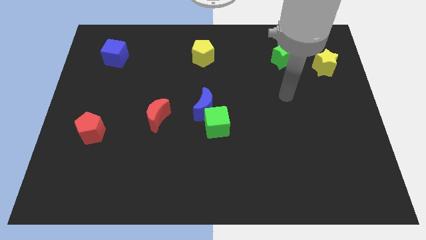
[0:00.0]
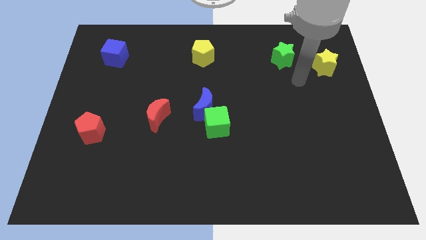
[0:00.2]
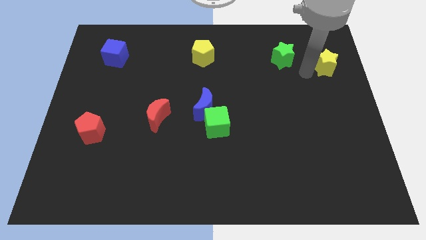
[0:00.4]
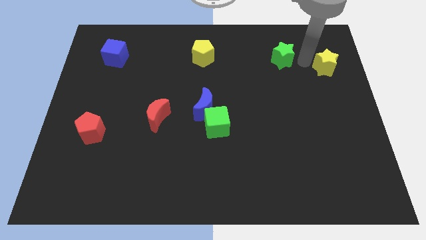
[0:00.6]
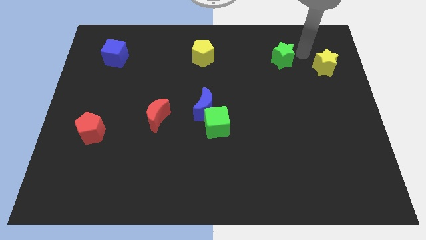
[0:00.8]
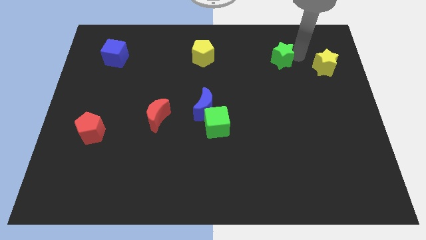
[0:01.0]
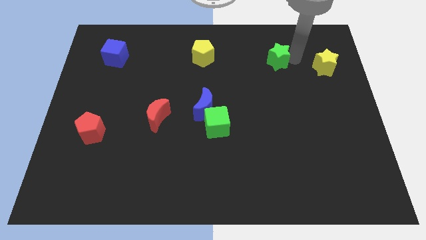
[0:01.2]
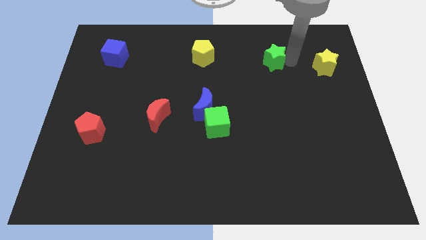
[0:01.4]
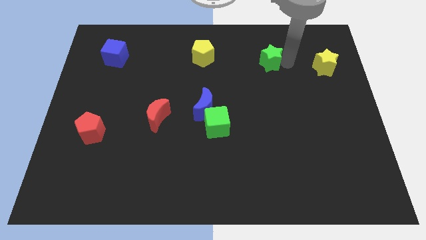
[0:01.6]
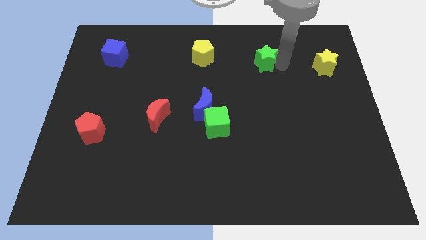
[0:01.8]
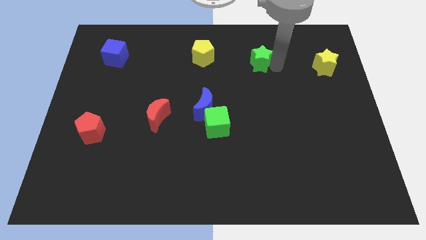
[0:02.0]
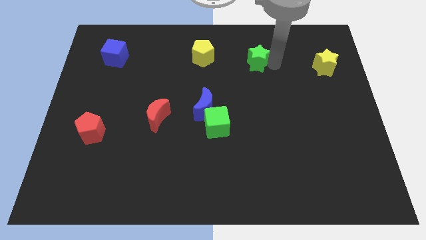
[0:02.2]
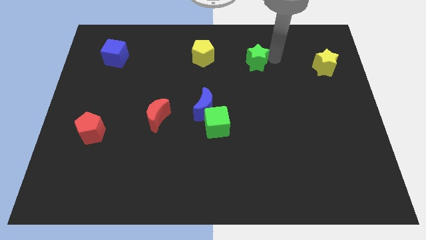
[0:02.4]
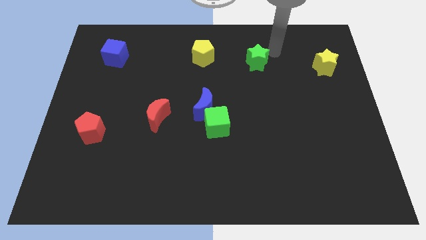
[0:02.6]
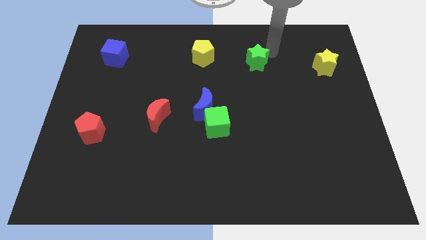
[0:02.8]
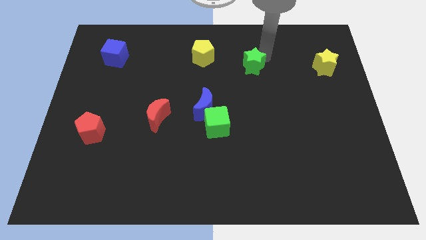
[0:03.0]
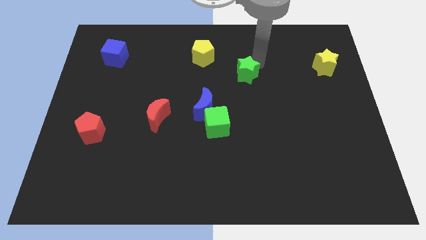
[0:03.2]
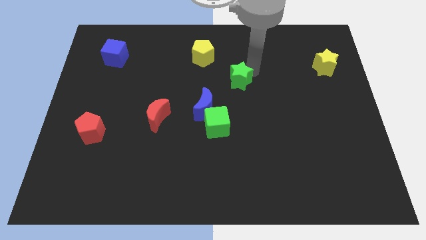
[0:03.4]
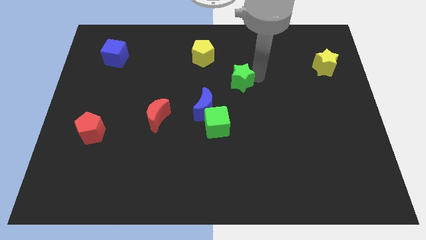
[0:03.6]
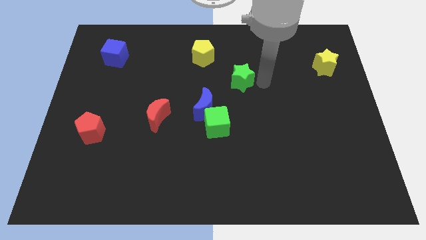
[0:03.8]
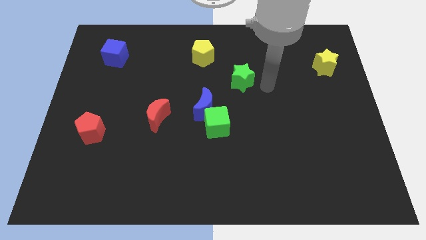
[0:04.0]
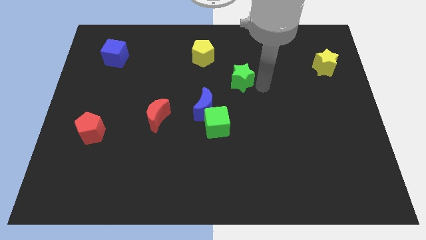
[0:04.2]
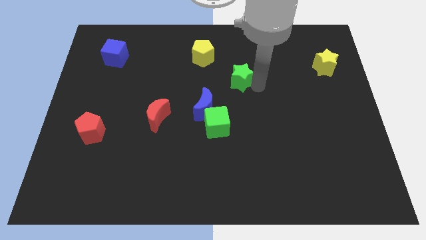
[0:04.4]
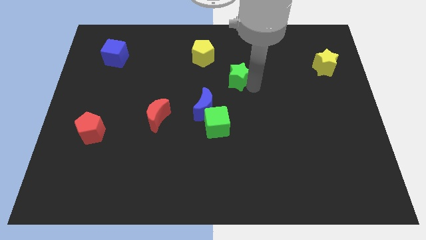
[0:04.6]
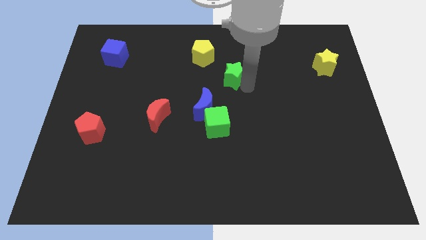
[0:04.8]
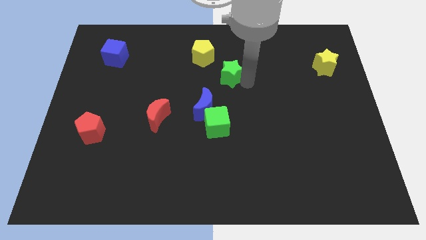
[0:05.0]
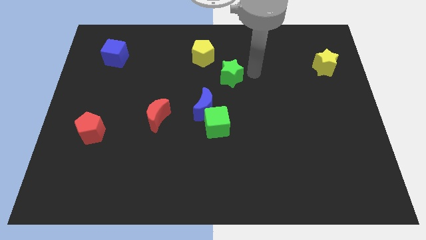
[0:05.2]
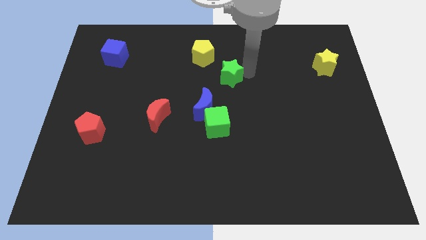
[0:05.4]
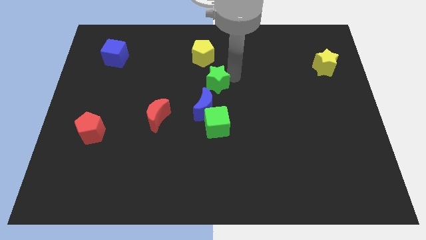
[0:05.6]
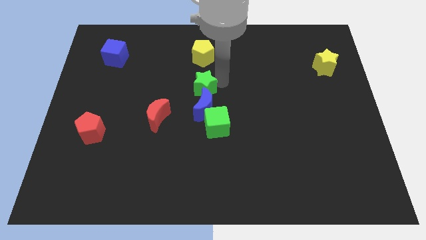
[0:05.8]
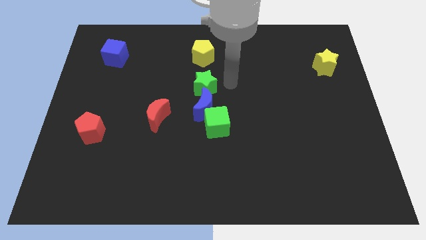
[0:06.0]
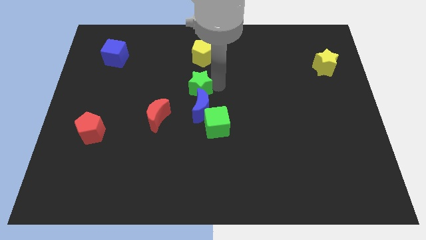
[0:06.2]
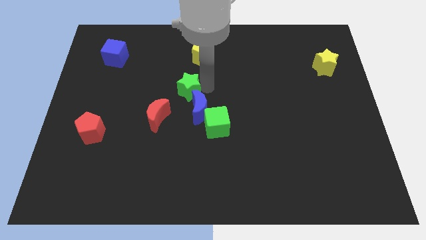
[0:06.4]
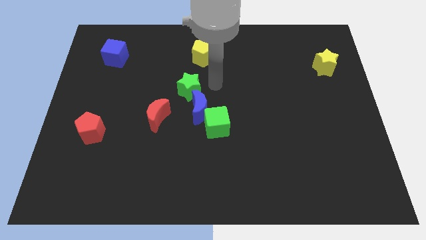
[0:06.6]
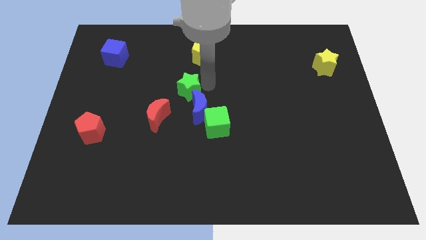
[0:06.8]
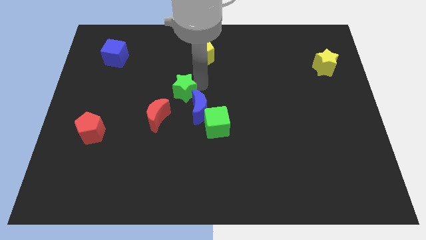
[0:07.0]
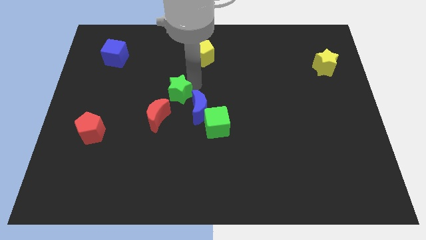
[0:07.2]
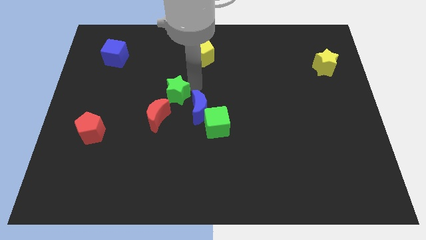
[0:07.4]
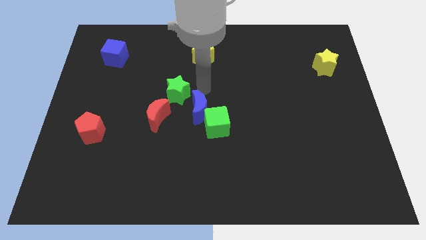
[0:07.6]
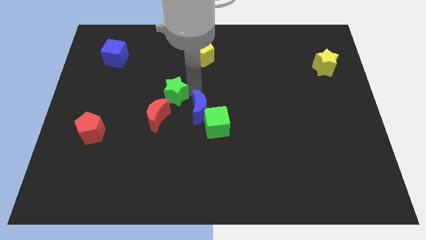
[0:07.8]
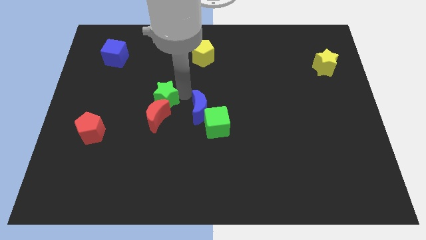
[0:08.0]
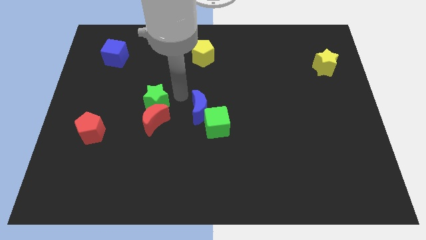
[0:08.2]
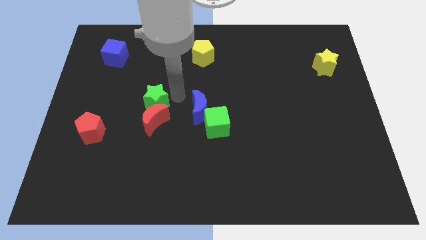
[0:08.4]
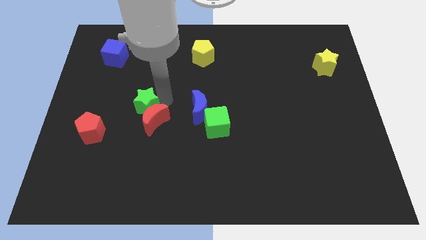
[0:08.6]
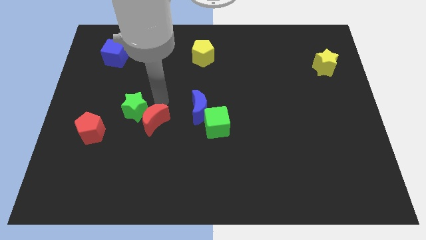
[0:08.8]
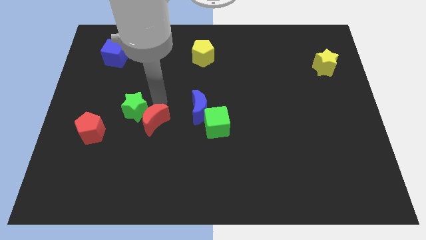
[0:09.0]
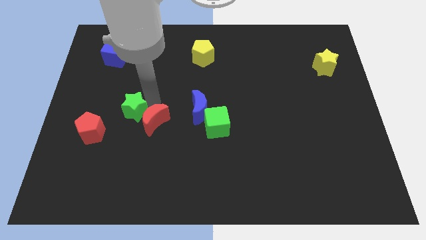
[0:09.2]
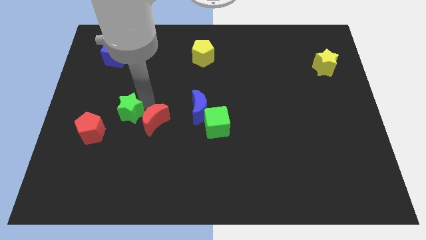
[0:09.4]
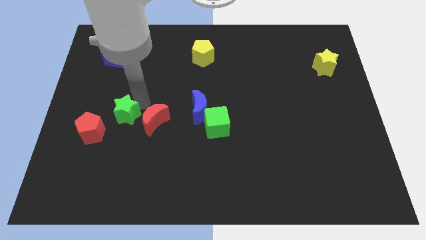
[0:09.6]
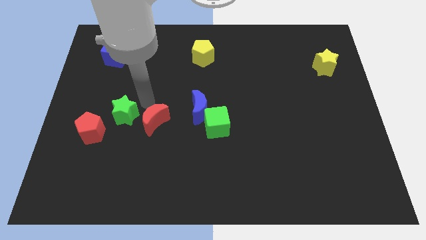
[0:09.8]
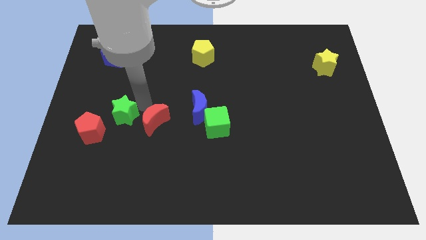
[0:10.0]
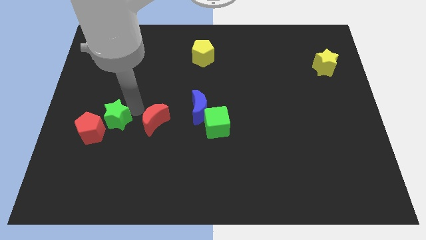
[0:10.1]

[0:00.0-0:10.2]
slide the green star next to the red pentagon

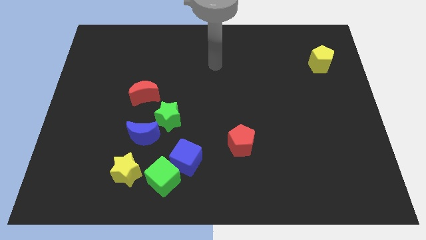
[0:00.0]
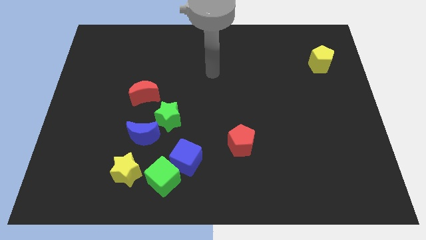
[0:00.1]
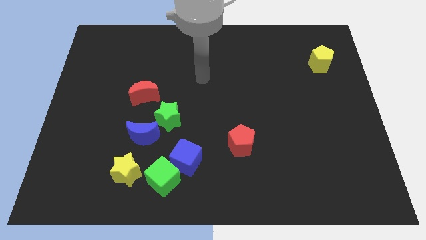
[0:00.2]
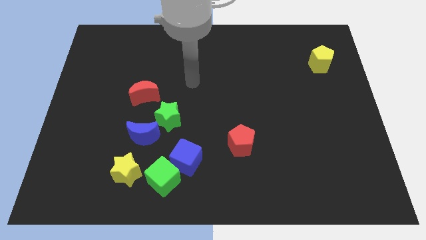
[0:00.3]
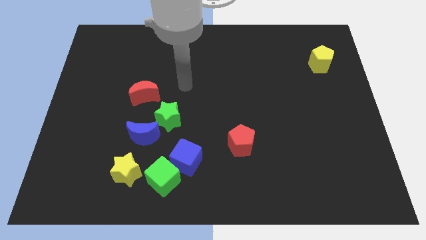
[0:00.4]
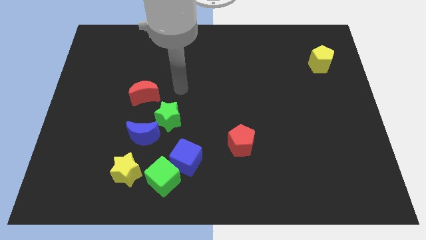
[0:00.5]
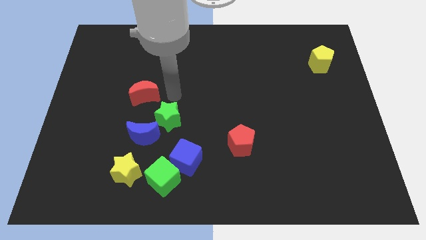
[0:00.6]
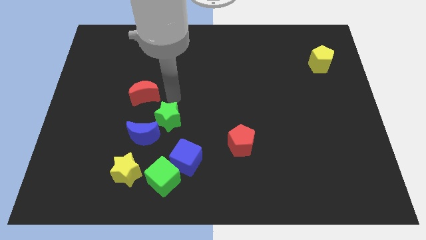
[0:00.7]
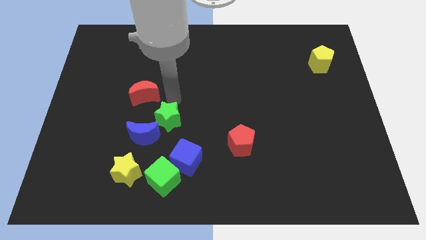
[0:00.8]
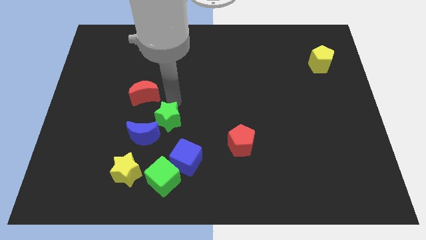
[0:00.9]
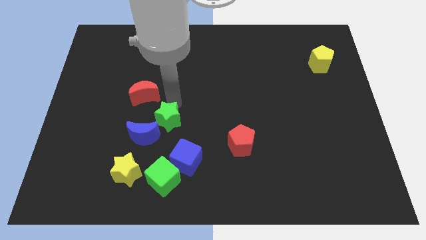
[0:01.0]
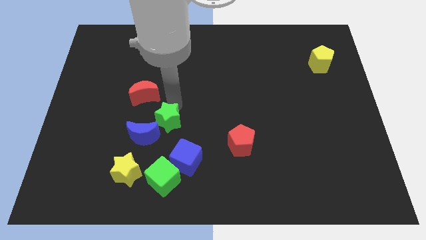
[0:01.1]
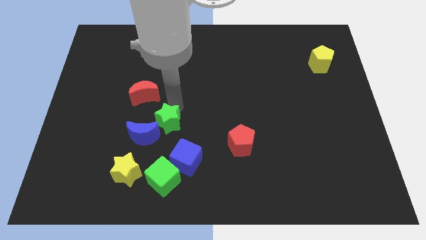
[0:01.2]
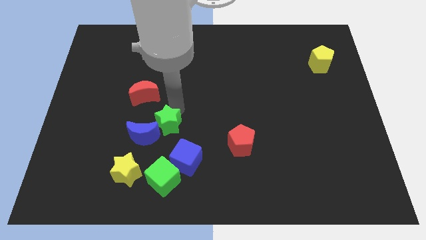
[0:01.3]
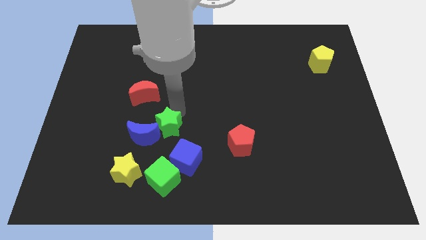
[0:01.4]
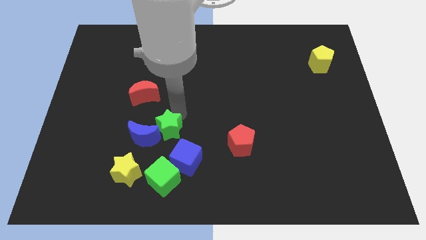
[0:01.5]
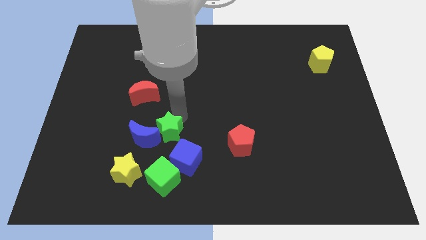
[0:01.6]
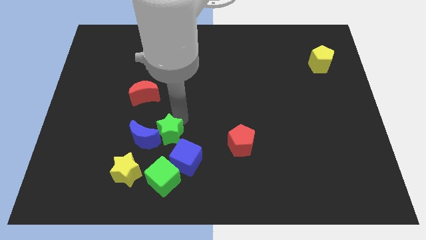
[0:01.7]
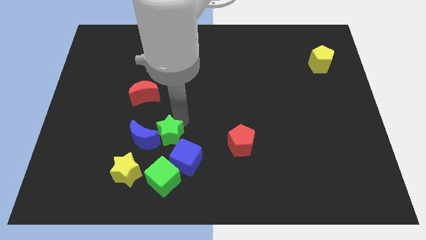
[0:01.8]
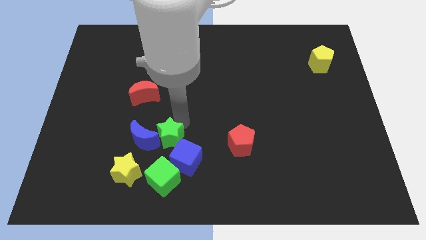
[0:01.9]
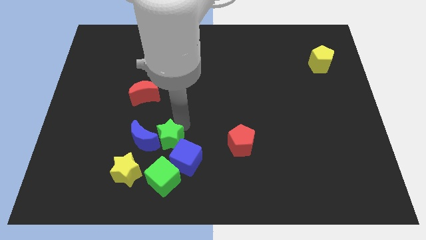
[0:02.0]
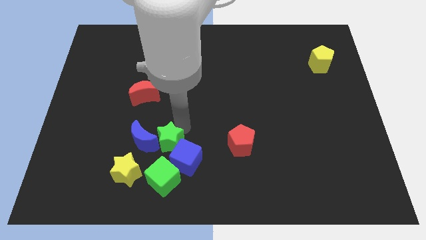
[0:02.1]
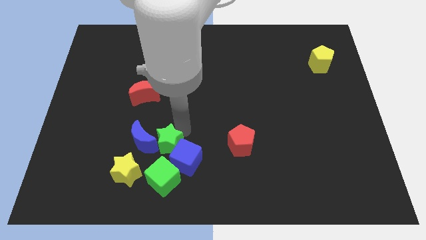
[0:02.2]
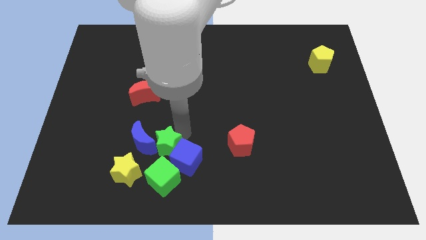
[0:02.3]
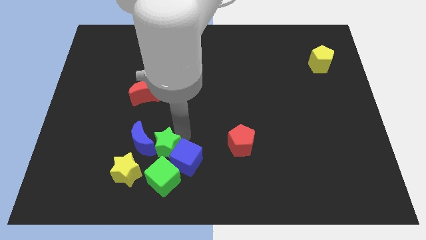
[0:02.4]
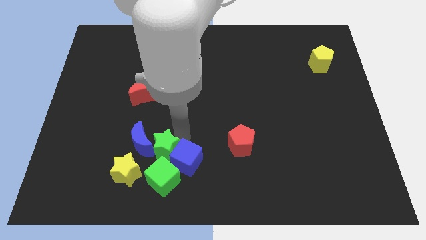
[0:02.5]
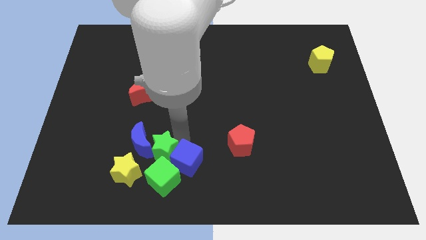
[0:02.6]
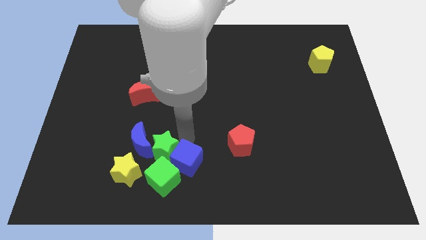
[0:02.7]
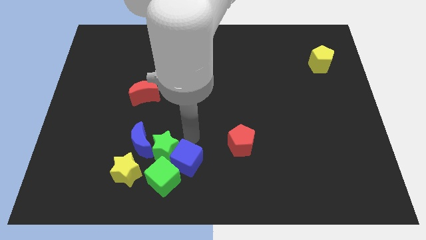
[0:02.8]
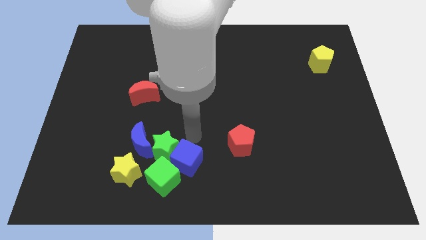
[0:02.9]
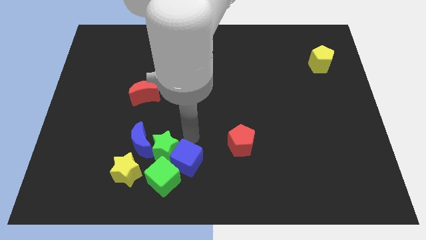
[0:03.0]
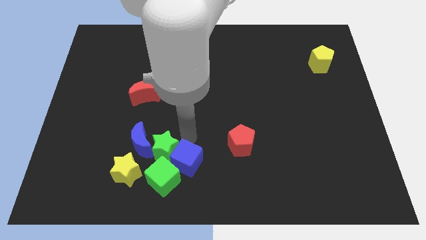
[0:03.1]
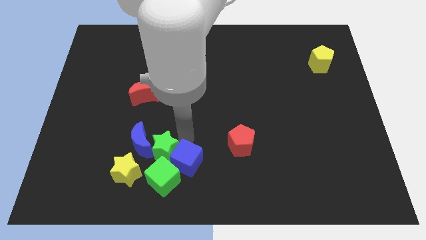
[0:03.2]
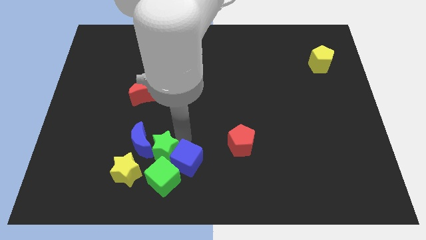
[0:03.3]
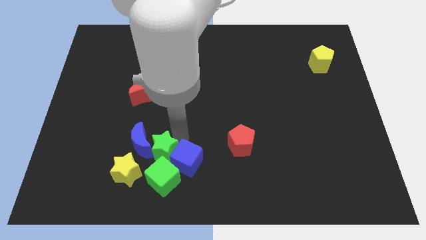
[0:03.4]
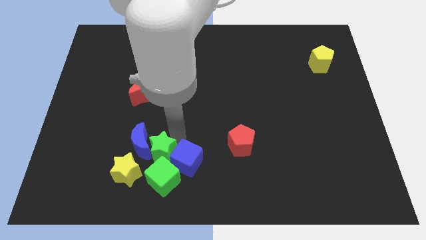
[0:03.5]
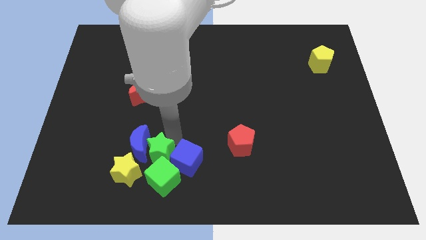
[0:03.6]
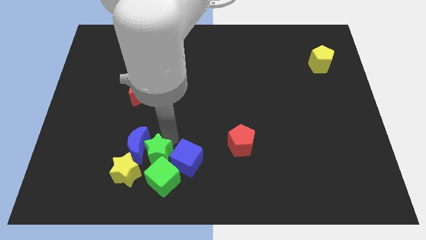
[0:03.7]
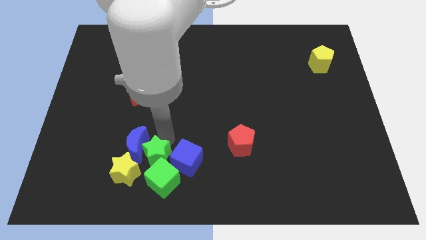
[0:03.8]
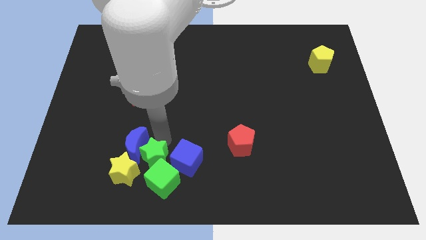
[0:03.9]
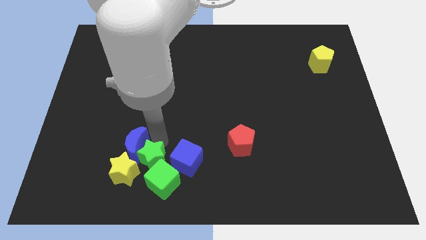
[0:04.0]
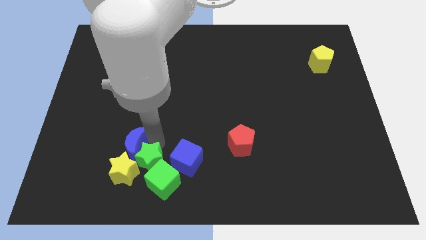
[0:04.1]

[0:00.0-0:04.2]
put the green star to the yellow star
